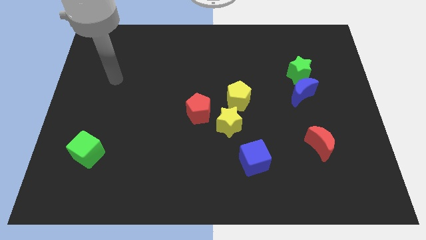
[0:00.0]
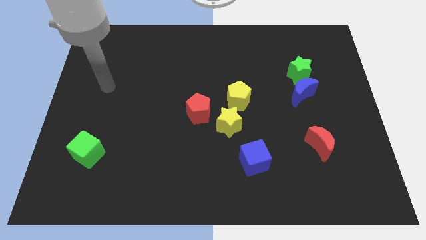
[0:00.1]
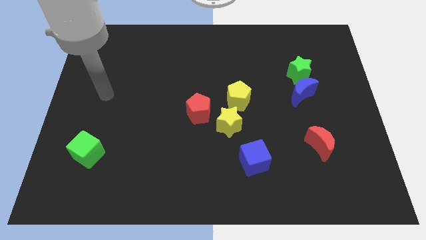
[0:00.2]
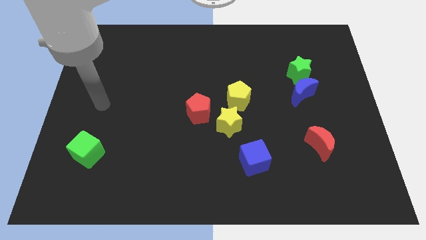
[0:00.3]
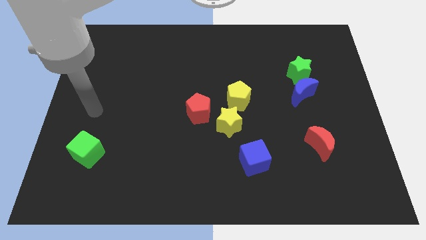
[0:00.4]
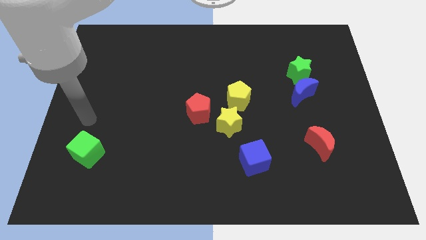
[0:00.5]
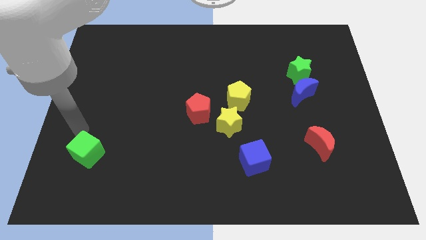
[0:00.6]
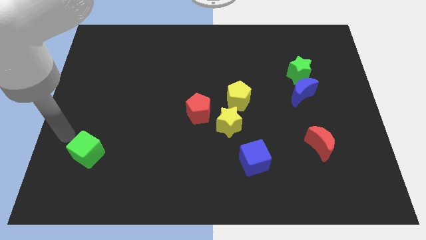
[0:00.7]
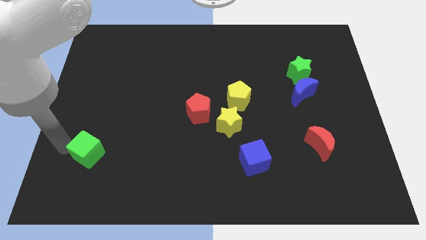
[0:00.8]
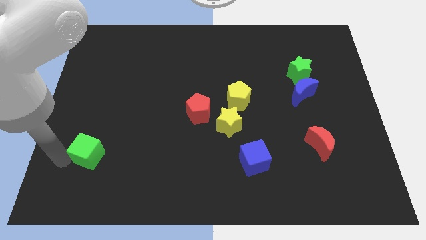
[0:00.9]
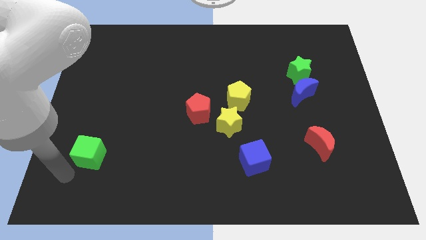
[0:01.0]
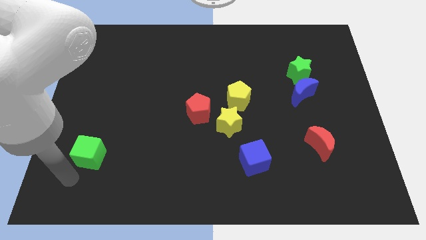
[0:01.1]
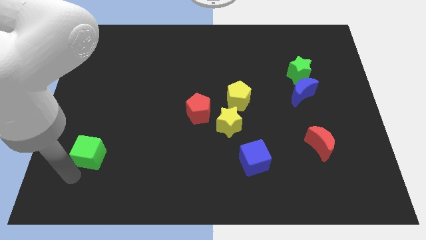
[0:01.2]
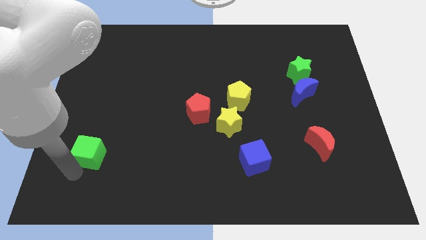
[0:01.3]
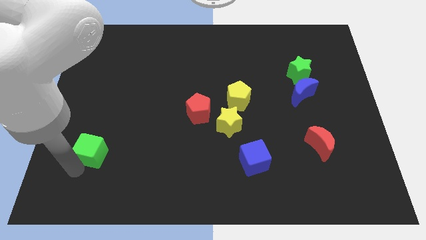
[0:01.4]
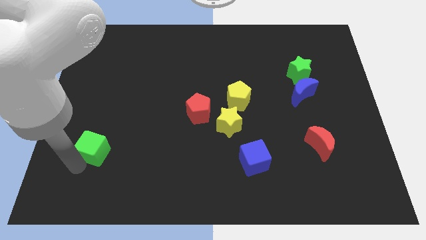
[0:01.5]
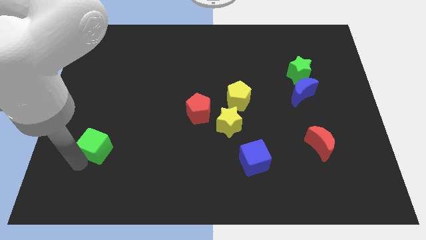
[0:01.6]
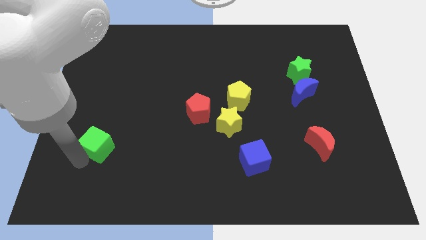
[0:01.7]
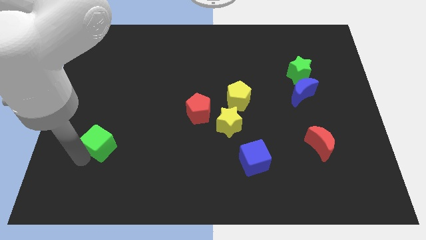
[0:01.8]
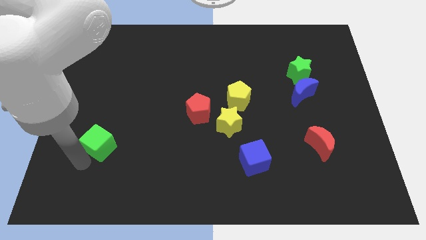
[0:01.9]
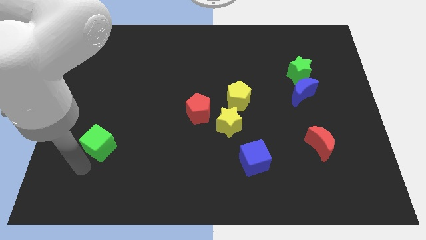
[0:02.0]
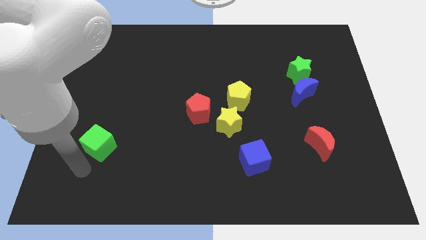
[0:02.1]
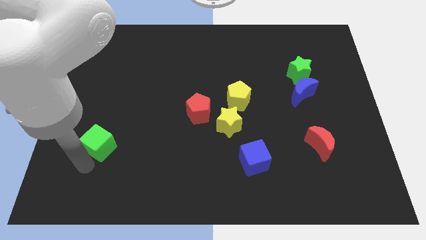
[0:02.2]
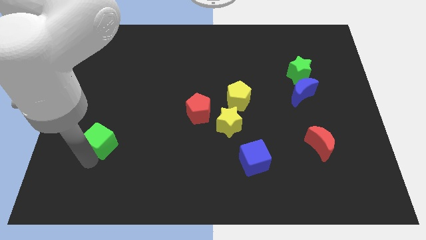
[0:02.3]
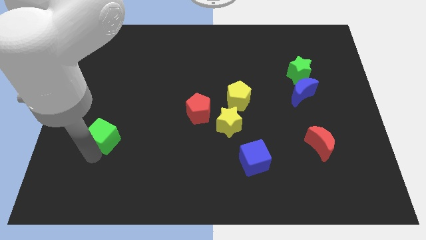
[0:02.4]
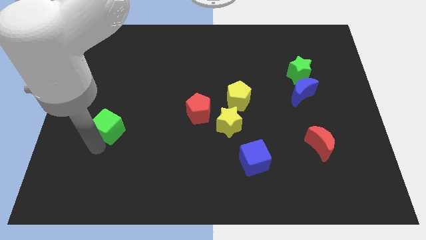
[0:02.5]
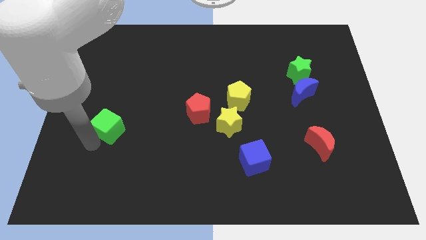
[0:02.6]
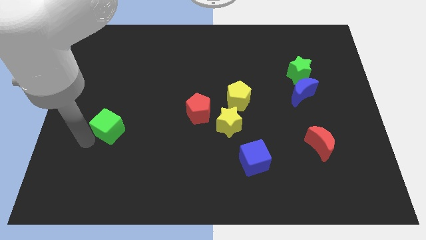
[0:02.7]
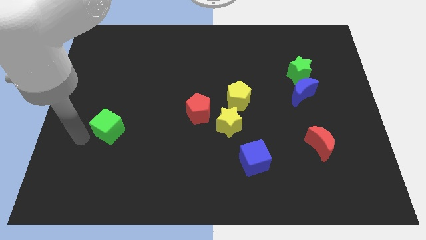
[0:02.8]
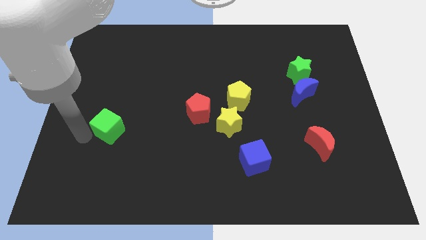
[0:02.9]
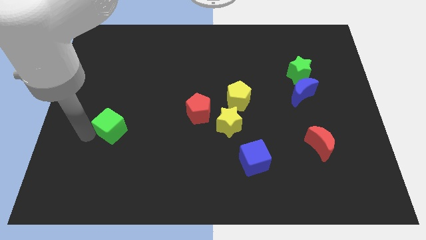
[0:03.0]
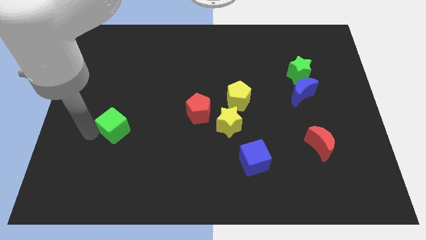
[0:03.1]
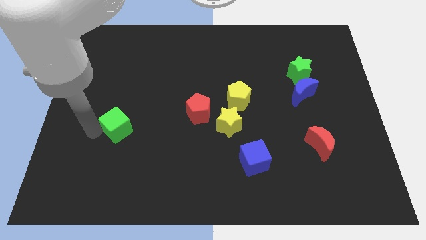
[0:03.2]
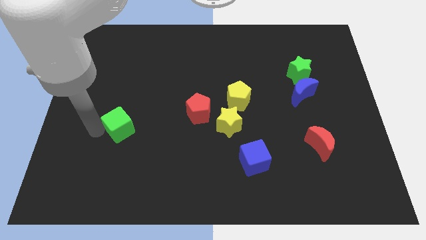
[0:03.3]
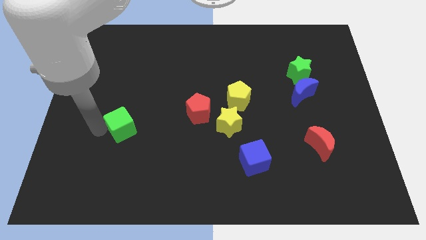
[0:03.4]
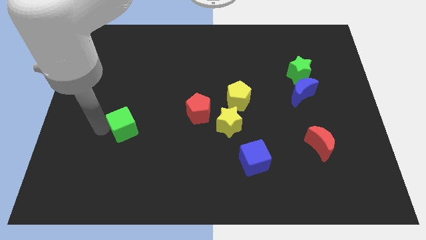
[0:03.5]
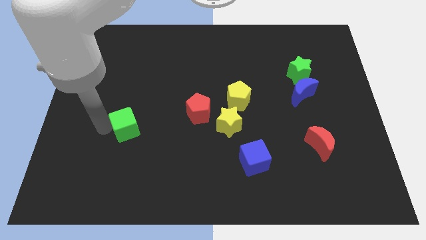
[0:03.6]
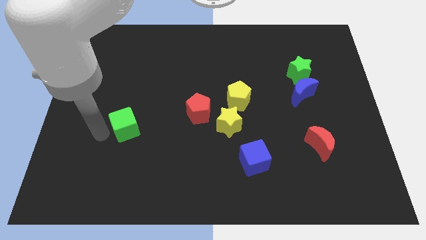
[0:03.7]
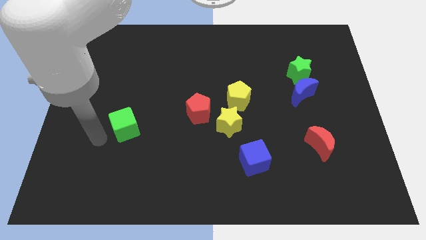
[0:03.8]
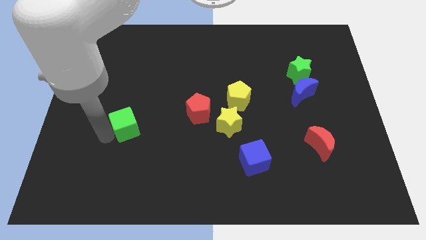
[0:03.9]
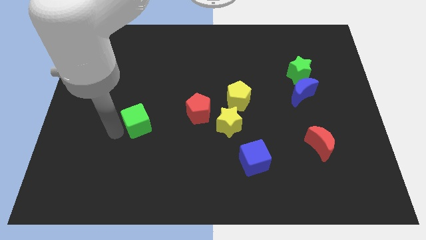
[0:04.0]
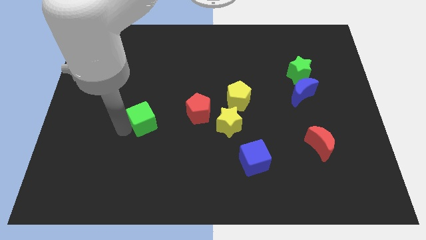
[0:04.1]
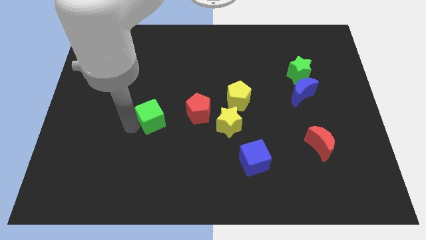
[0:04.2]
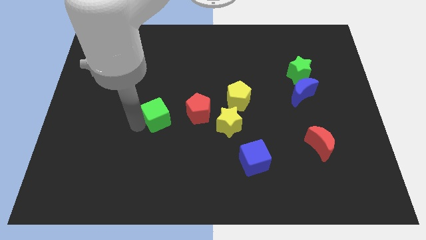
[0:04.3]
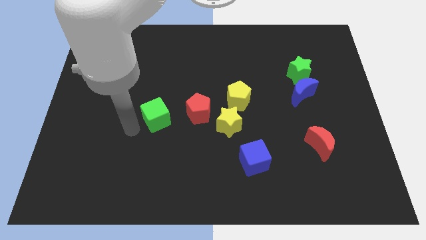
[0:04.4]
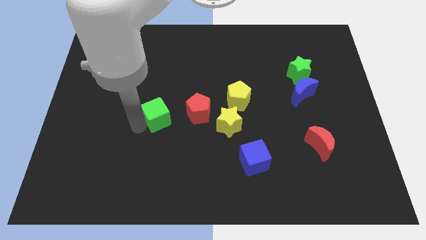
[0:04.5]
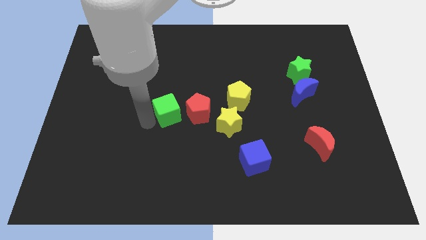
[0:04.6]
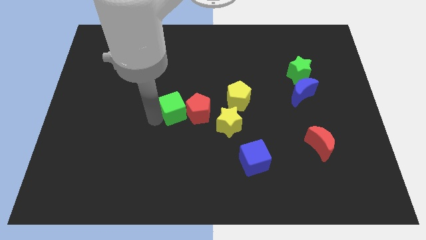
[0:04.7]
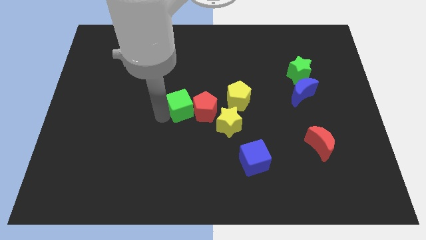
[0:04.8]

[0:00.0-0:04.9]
slide the green cube just left of the yellow pentagon

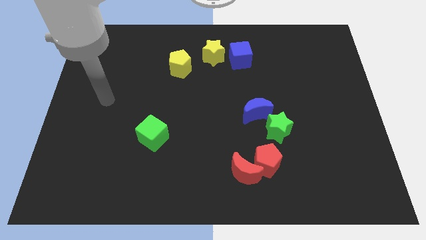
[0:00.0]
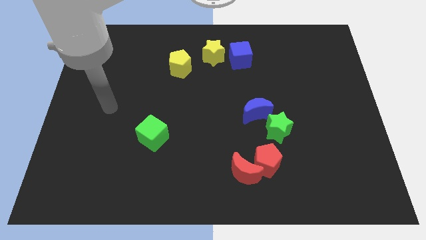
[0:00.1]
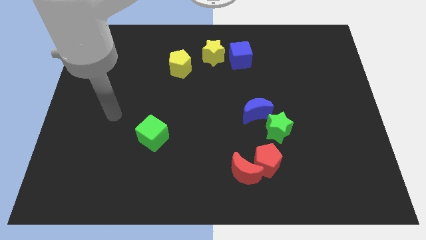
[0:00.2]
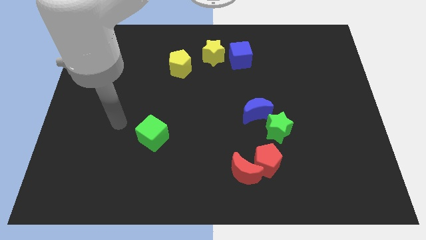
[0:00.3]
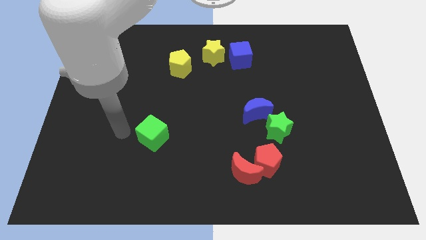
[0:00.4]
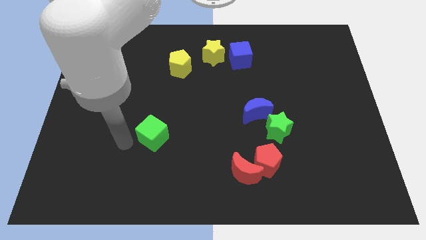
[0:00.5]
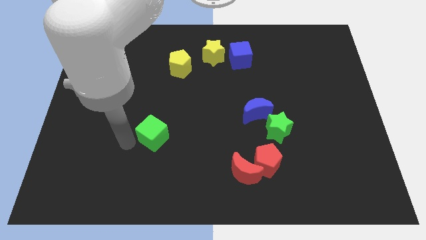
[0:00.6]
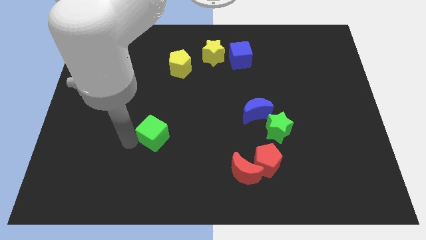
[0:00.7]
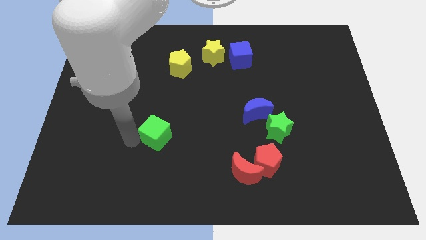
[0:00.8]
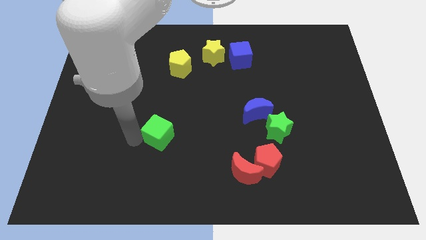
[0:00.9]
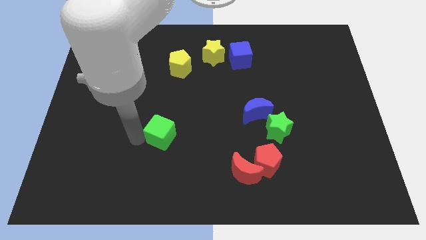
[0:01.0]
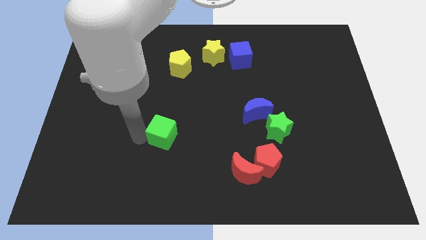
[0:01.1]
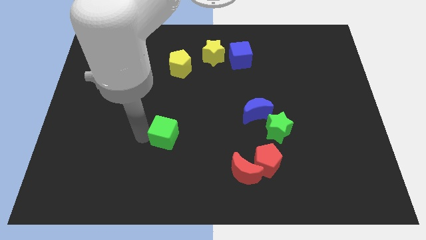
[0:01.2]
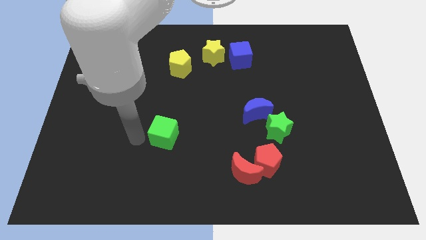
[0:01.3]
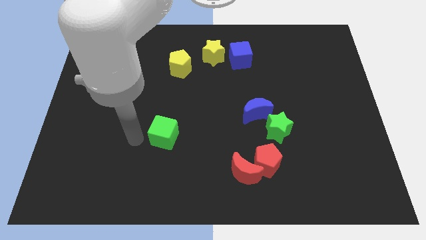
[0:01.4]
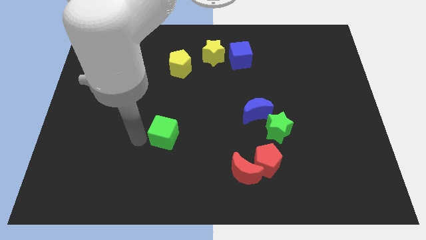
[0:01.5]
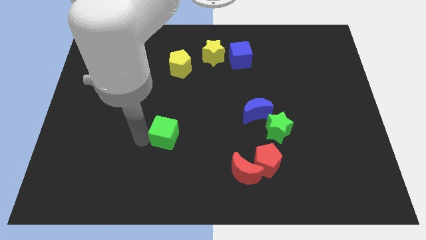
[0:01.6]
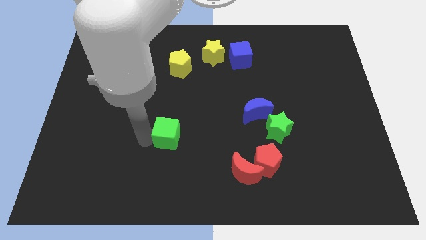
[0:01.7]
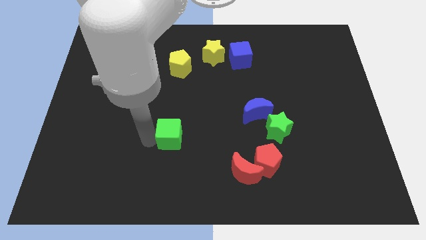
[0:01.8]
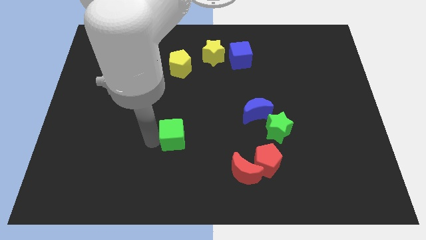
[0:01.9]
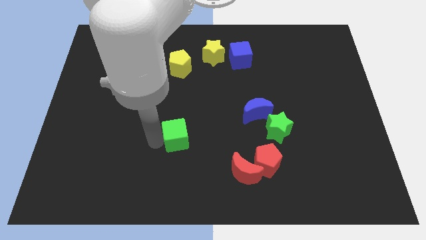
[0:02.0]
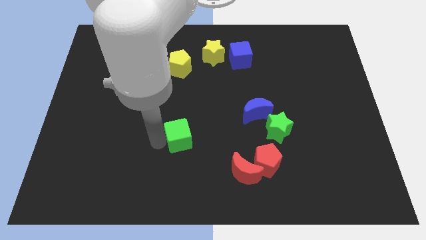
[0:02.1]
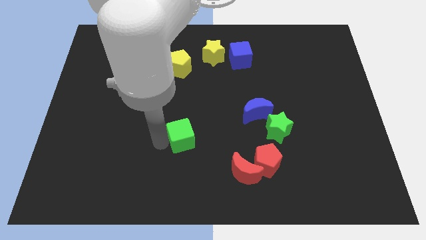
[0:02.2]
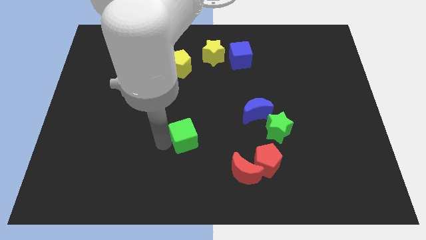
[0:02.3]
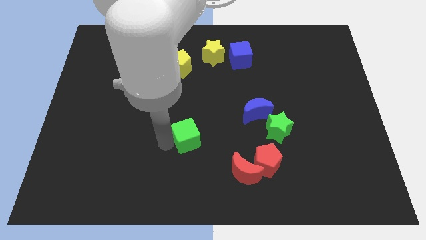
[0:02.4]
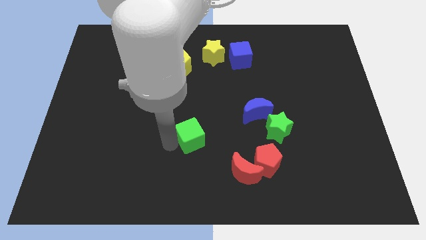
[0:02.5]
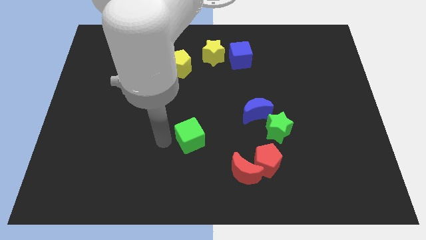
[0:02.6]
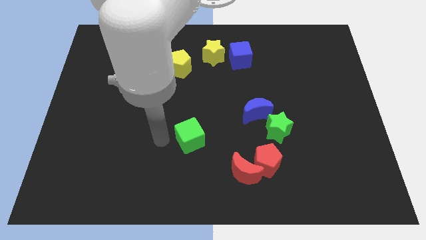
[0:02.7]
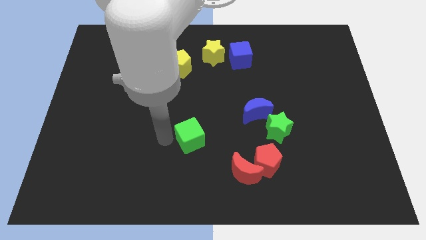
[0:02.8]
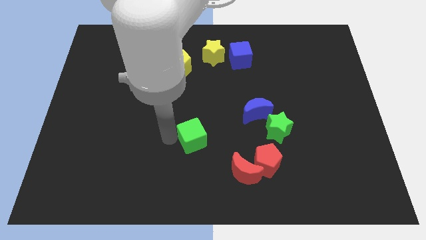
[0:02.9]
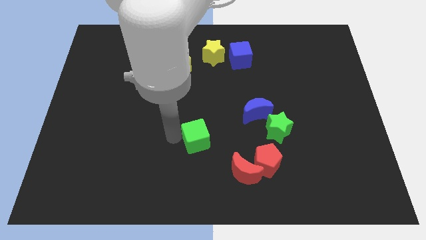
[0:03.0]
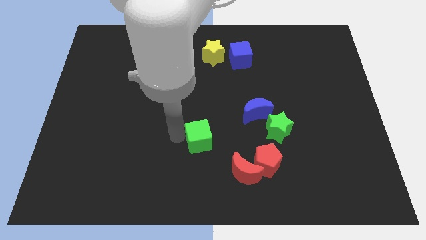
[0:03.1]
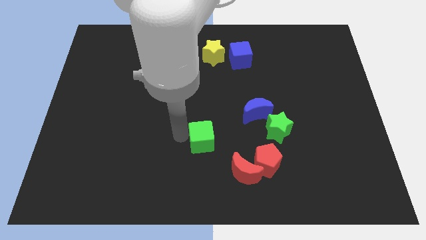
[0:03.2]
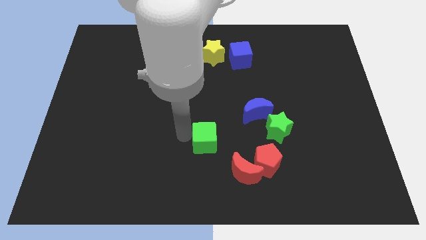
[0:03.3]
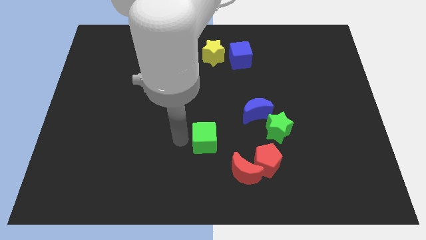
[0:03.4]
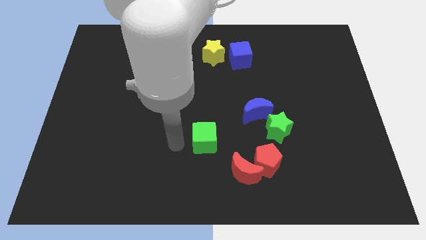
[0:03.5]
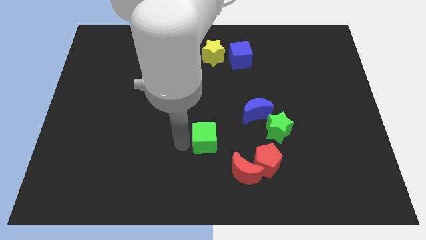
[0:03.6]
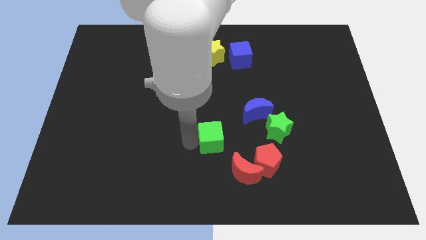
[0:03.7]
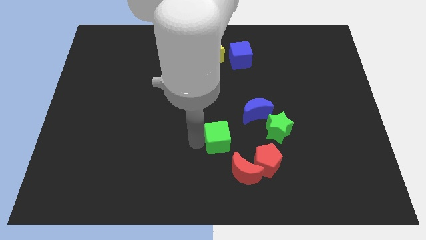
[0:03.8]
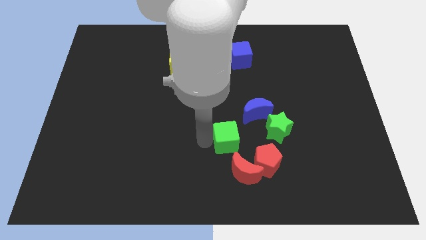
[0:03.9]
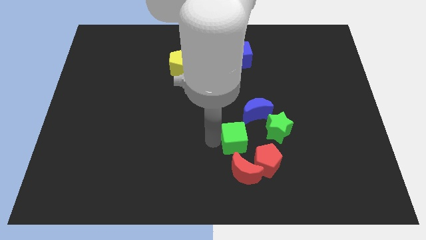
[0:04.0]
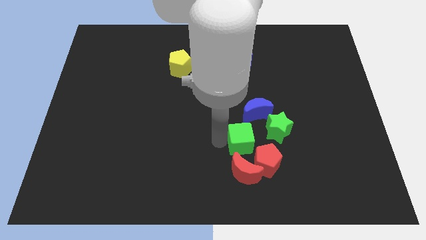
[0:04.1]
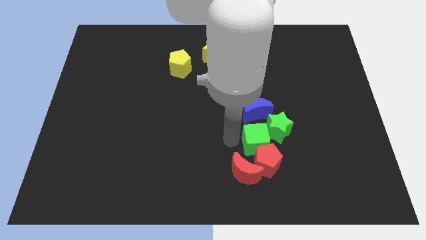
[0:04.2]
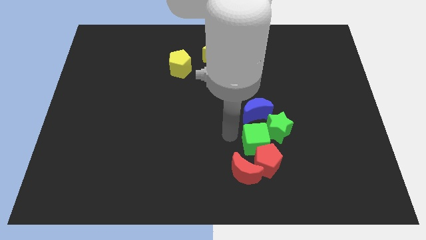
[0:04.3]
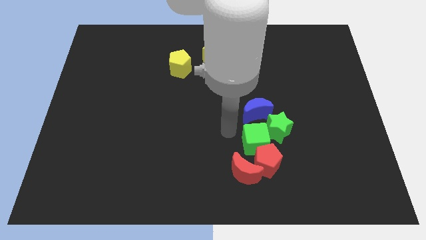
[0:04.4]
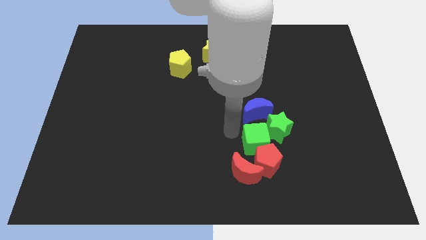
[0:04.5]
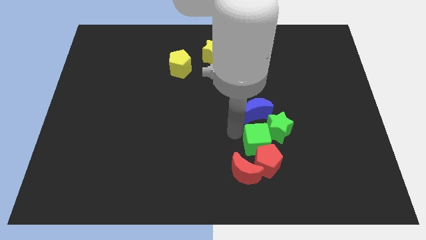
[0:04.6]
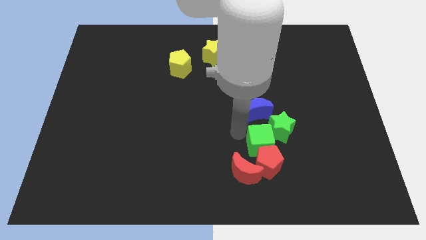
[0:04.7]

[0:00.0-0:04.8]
push the green cube to the bottom of the green star
